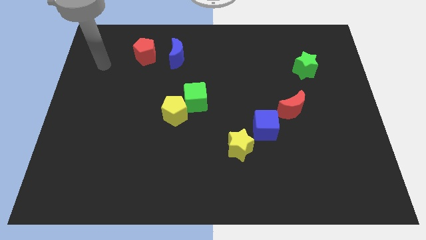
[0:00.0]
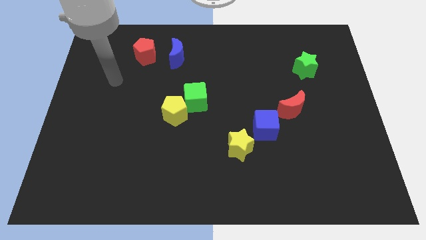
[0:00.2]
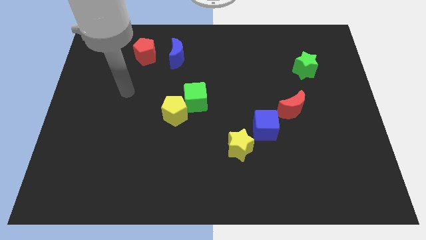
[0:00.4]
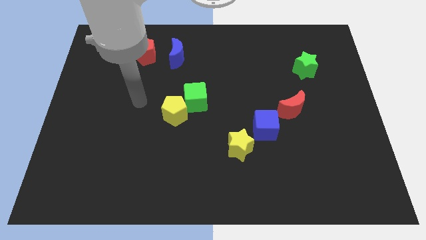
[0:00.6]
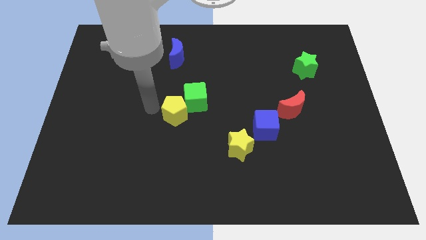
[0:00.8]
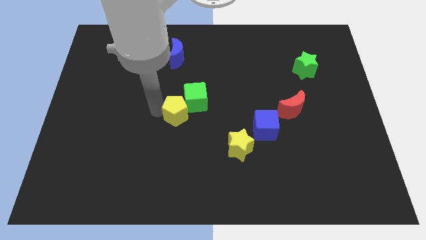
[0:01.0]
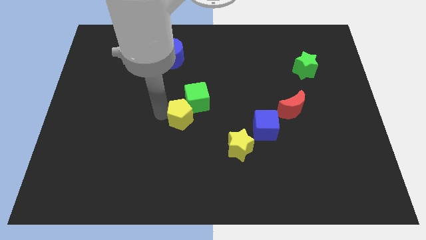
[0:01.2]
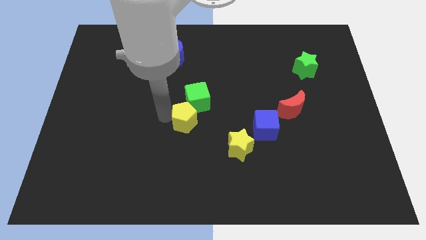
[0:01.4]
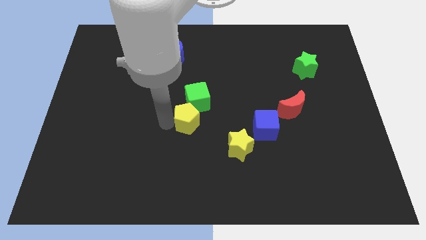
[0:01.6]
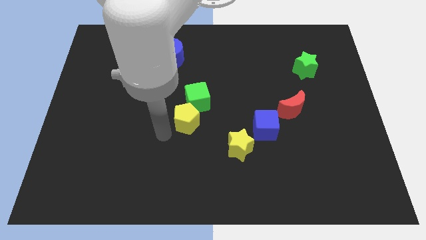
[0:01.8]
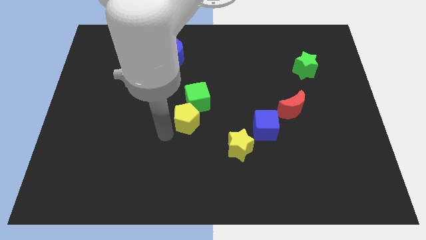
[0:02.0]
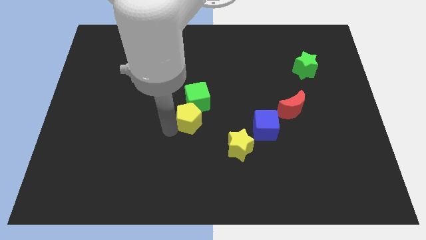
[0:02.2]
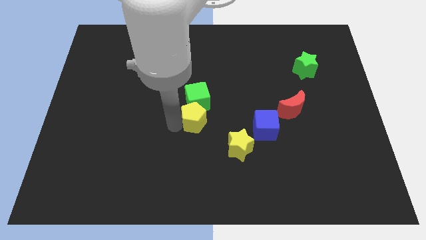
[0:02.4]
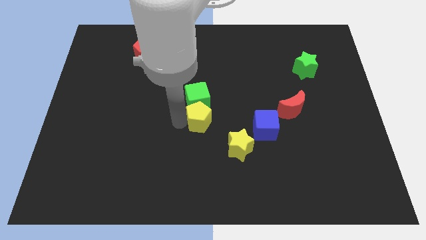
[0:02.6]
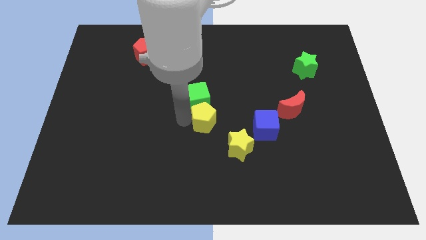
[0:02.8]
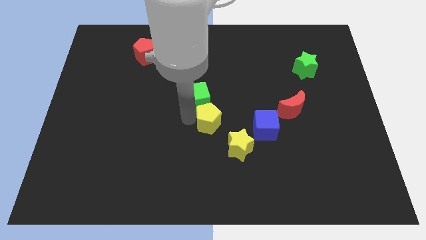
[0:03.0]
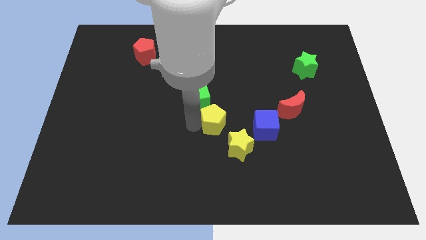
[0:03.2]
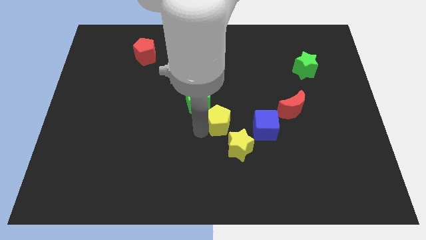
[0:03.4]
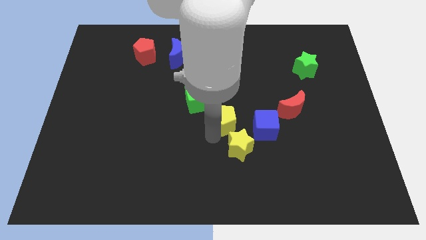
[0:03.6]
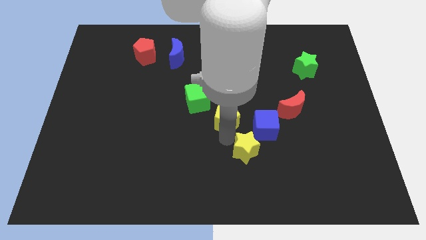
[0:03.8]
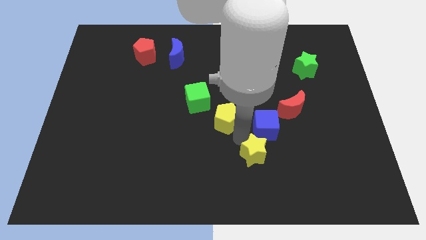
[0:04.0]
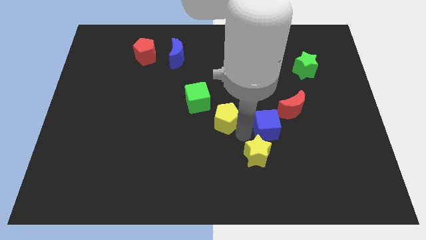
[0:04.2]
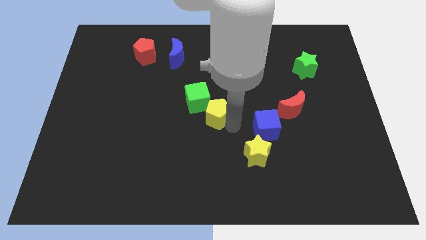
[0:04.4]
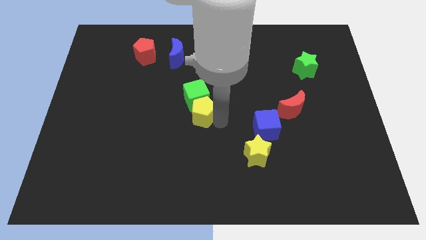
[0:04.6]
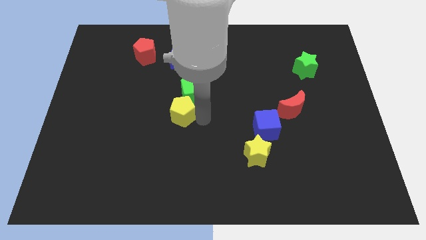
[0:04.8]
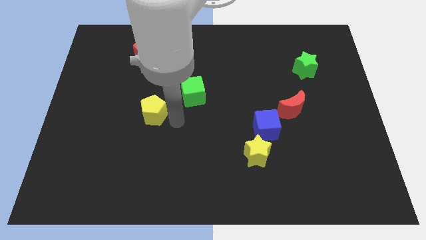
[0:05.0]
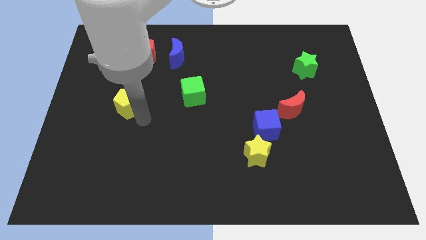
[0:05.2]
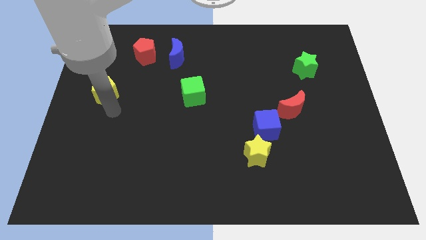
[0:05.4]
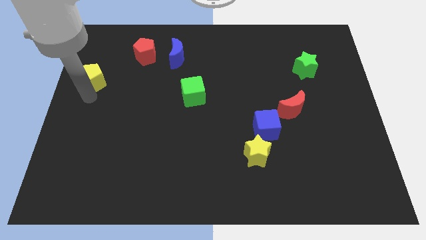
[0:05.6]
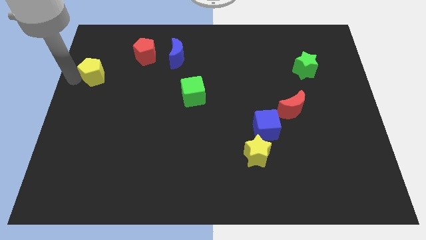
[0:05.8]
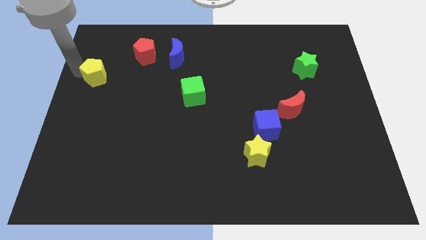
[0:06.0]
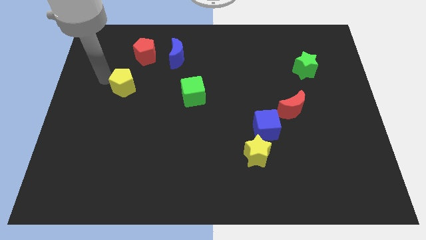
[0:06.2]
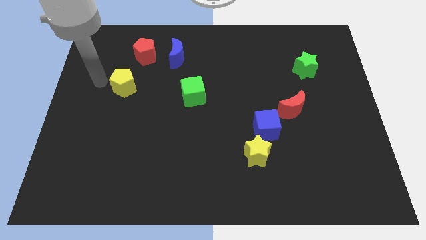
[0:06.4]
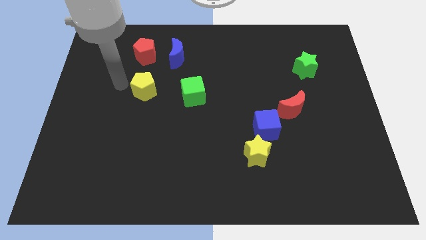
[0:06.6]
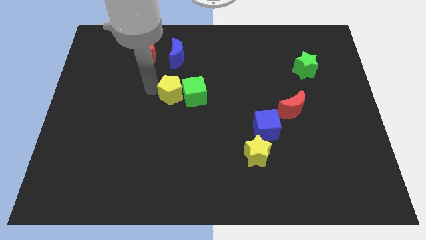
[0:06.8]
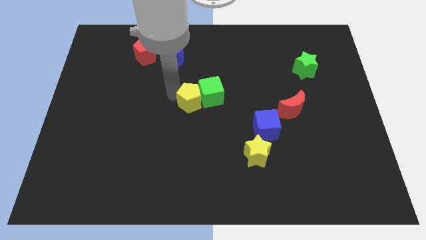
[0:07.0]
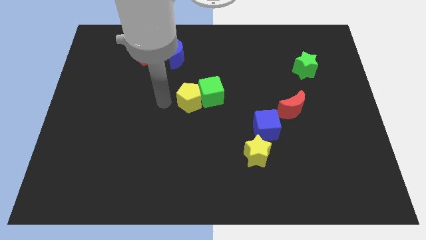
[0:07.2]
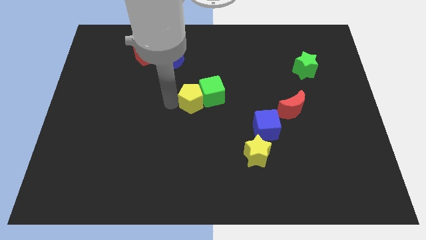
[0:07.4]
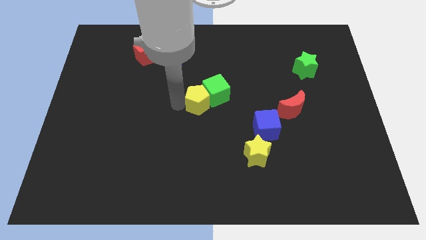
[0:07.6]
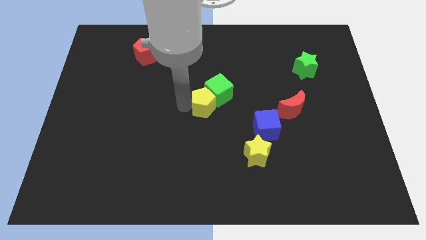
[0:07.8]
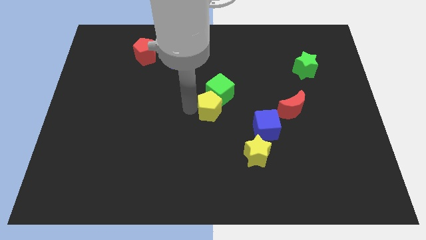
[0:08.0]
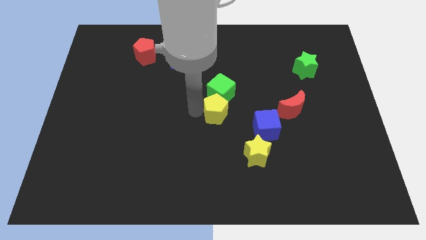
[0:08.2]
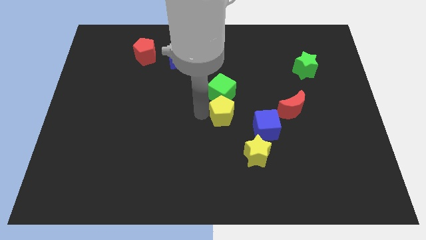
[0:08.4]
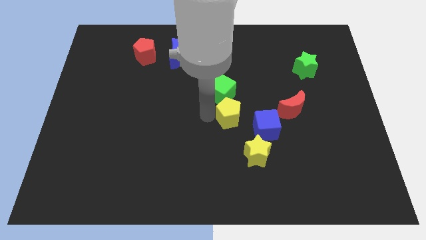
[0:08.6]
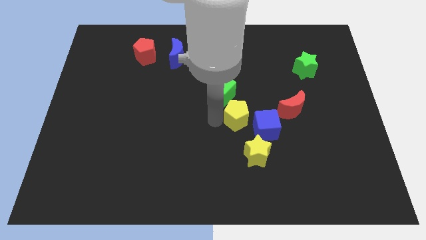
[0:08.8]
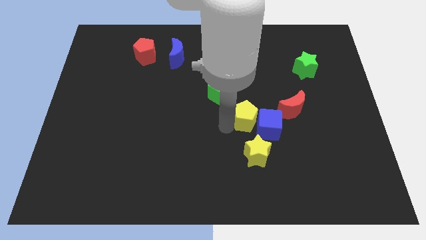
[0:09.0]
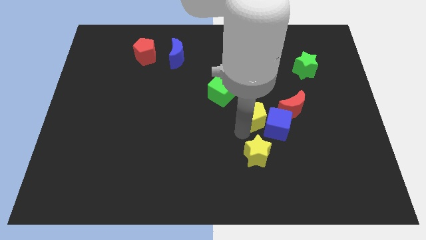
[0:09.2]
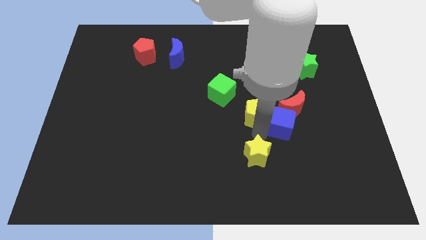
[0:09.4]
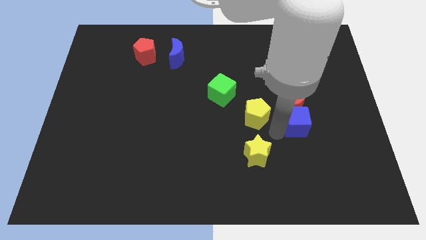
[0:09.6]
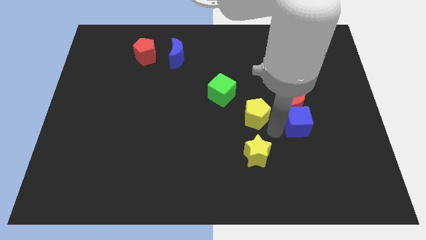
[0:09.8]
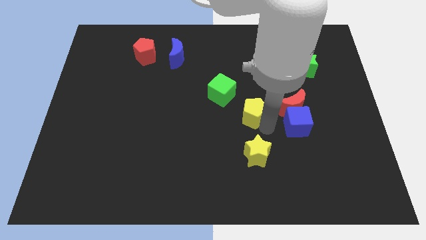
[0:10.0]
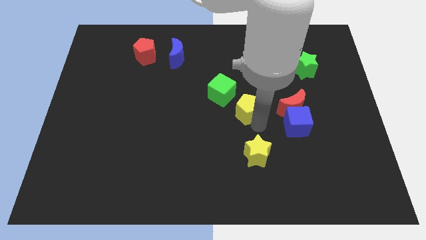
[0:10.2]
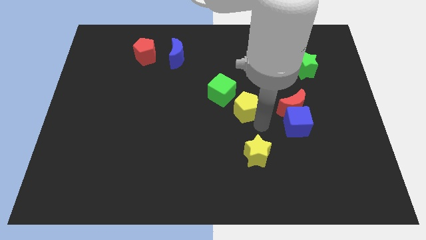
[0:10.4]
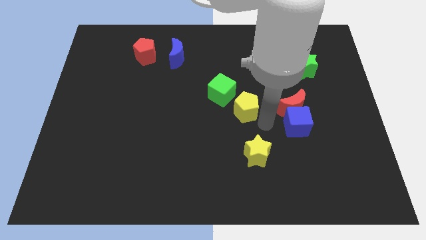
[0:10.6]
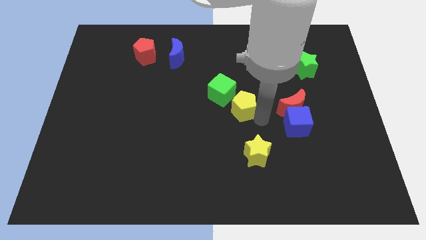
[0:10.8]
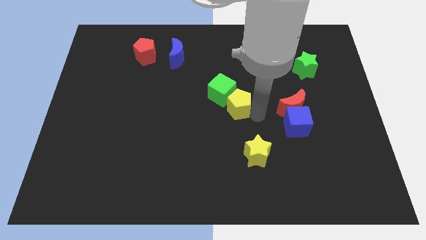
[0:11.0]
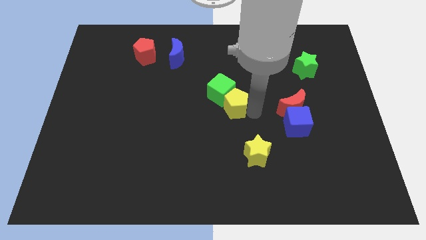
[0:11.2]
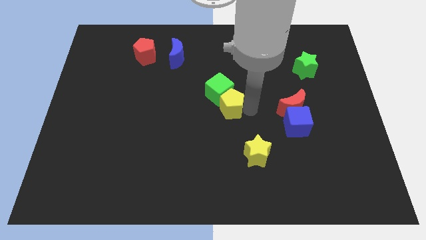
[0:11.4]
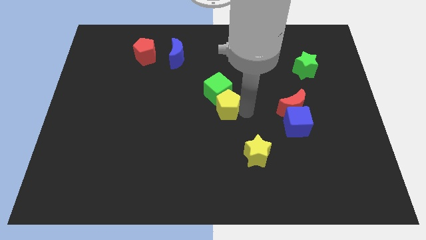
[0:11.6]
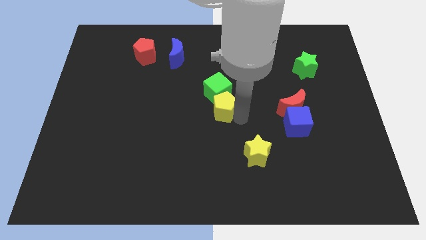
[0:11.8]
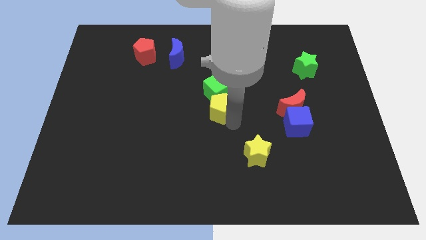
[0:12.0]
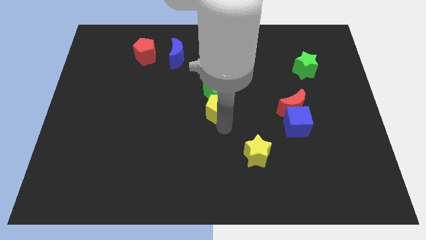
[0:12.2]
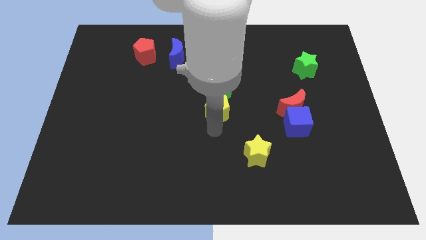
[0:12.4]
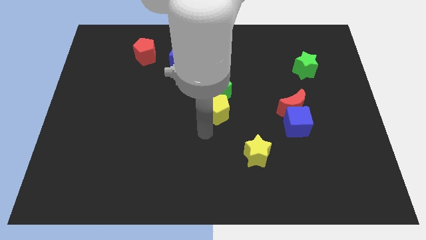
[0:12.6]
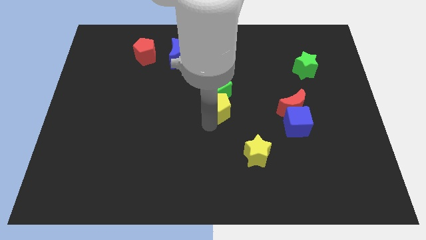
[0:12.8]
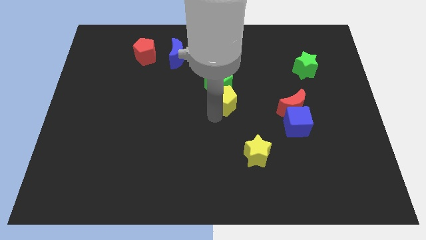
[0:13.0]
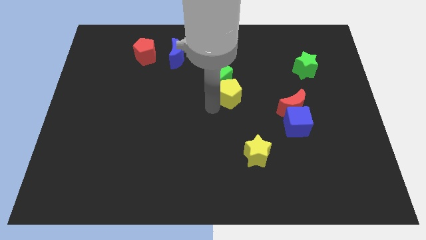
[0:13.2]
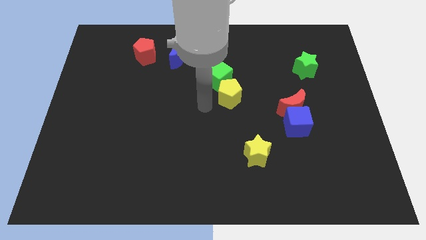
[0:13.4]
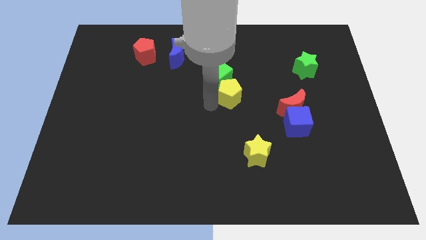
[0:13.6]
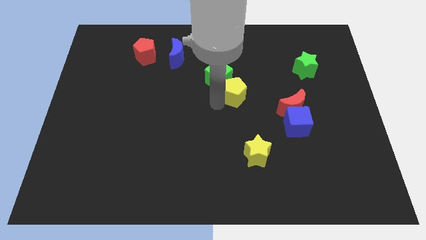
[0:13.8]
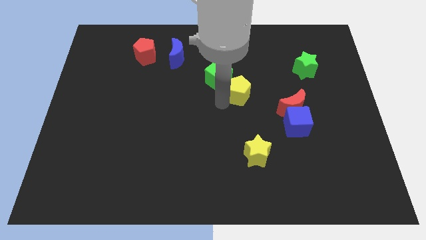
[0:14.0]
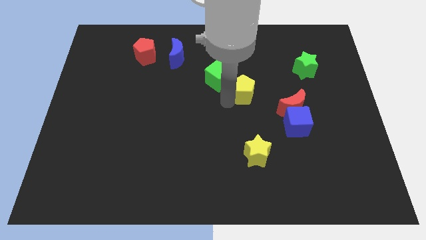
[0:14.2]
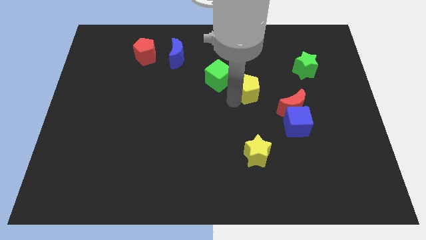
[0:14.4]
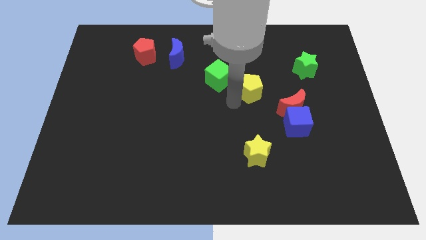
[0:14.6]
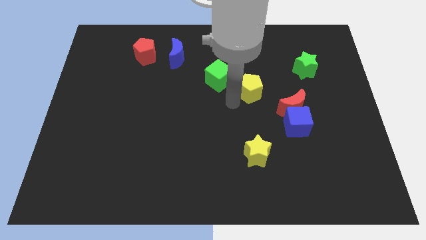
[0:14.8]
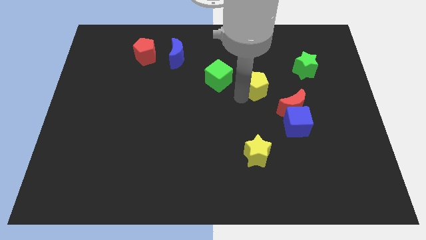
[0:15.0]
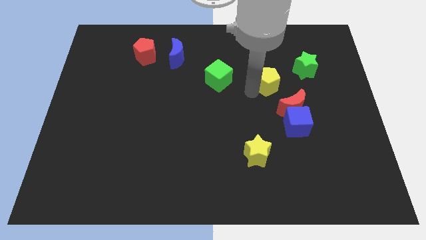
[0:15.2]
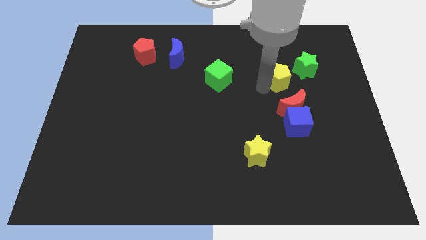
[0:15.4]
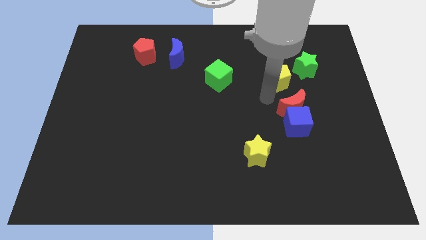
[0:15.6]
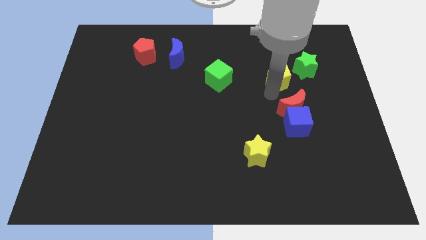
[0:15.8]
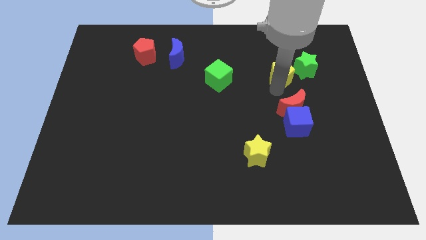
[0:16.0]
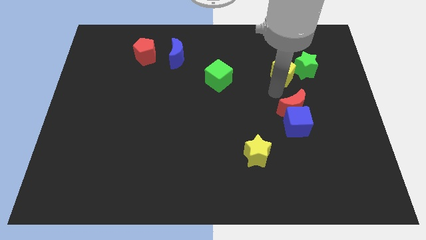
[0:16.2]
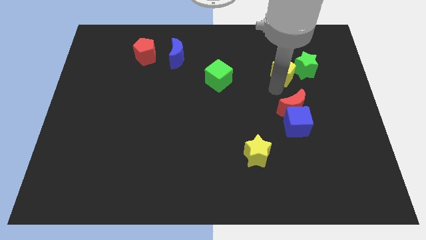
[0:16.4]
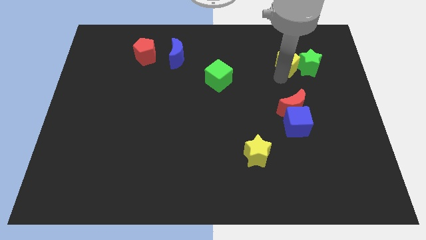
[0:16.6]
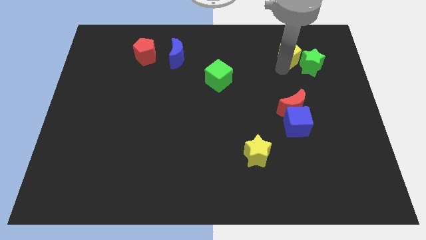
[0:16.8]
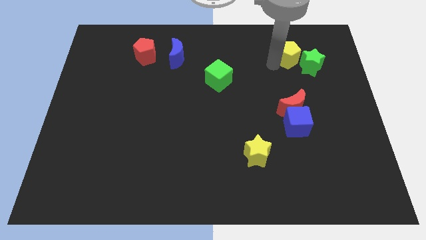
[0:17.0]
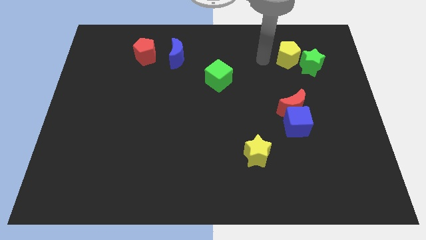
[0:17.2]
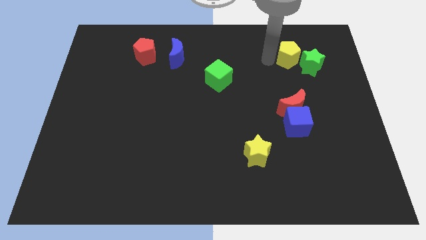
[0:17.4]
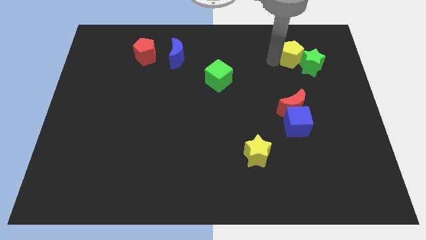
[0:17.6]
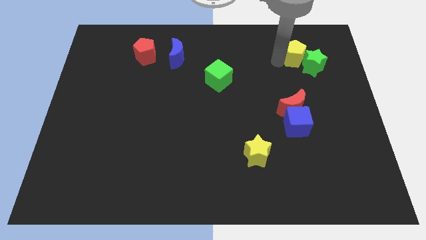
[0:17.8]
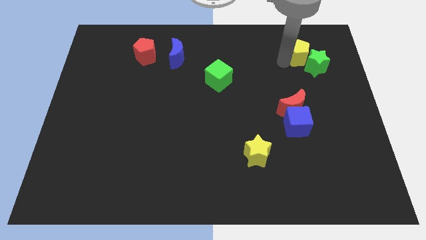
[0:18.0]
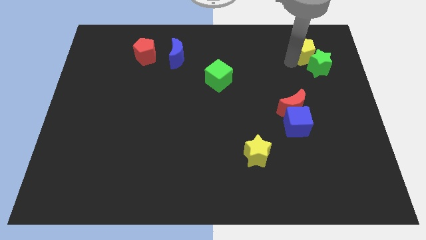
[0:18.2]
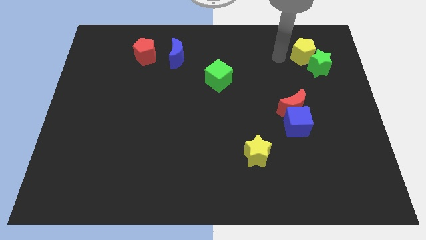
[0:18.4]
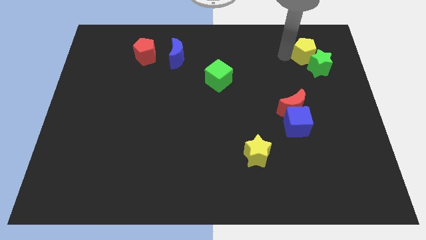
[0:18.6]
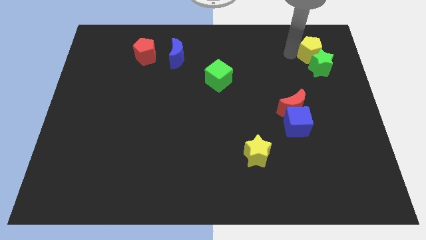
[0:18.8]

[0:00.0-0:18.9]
put the yellow pentagon diagonally up and to the right of the green star
